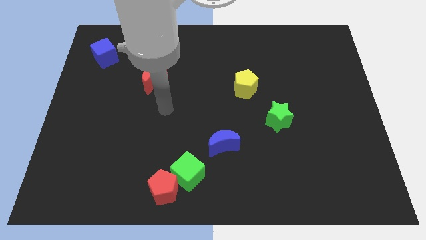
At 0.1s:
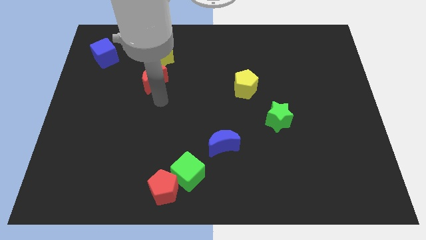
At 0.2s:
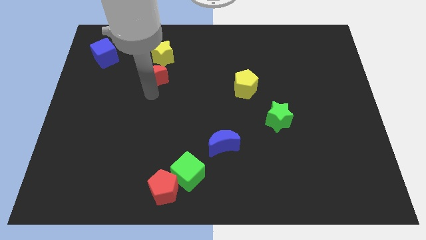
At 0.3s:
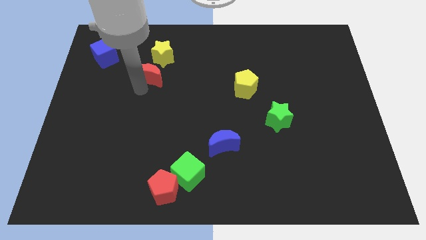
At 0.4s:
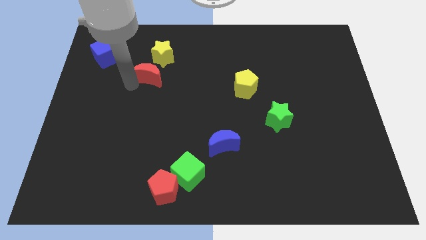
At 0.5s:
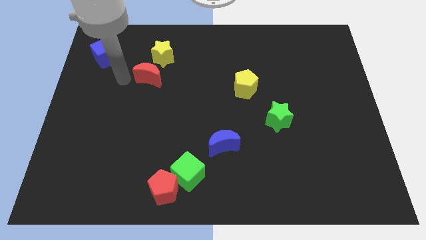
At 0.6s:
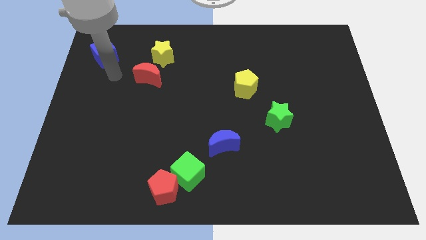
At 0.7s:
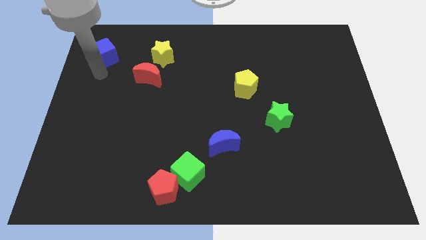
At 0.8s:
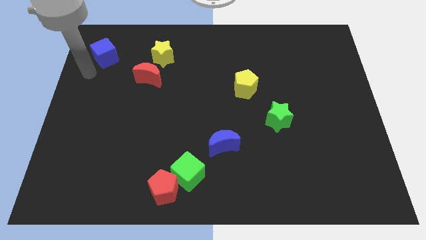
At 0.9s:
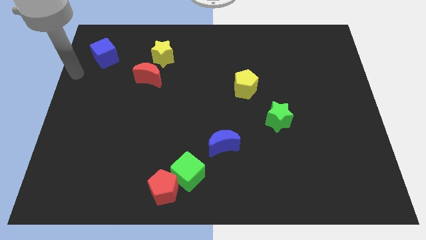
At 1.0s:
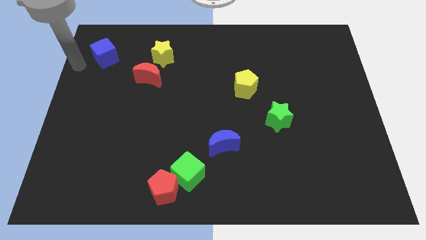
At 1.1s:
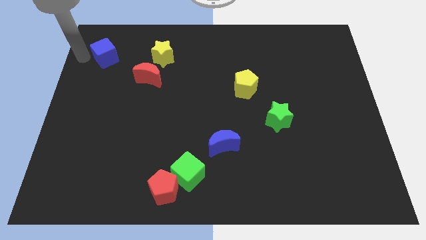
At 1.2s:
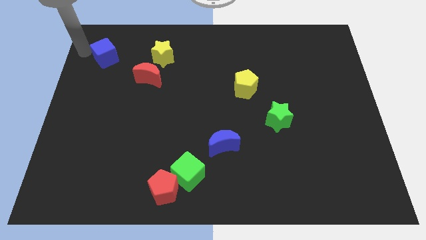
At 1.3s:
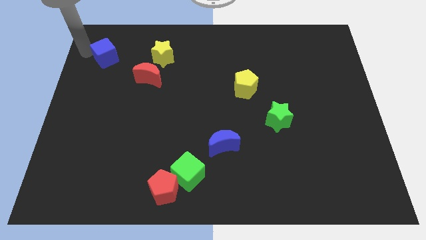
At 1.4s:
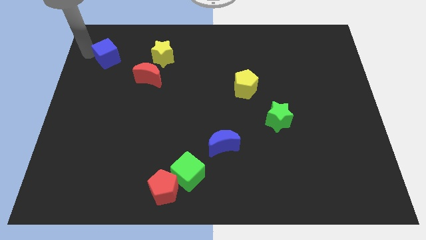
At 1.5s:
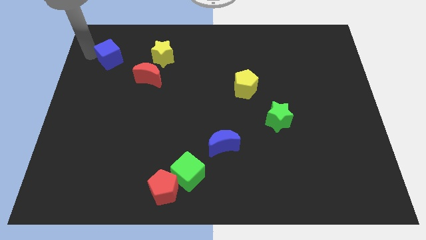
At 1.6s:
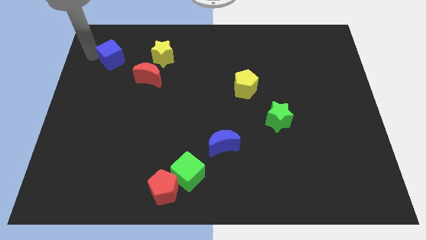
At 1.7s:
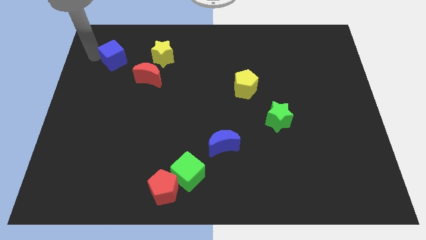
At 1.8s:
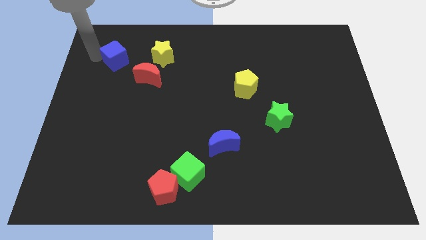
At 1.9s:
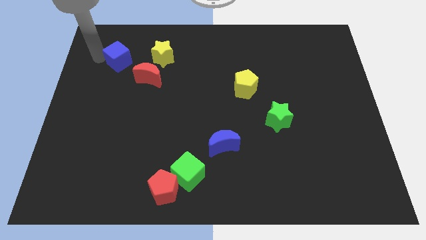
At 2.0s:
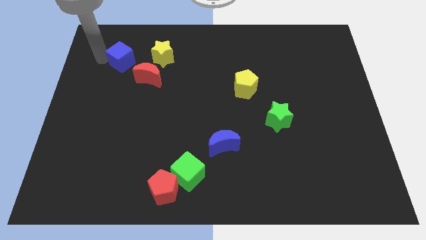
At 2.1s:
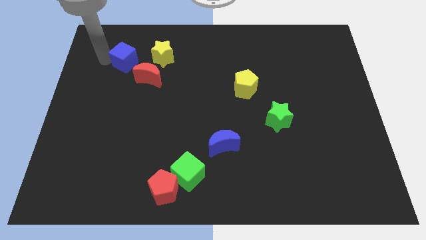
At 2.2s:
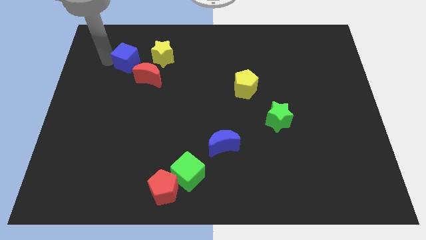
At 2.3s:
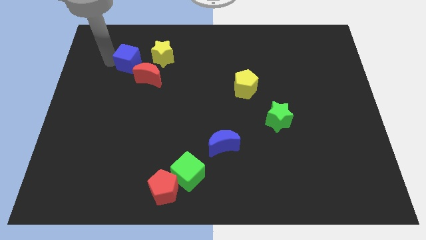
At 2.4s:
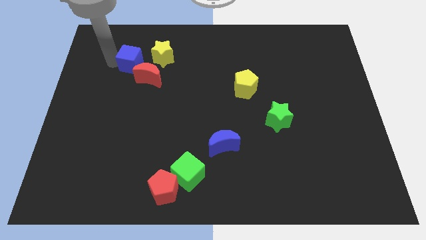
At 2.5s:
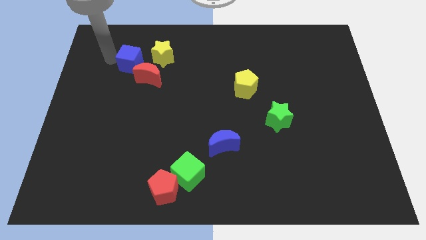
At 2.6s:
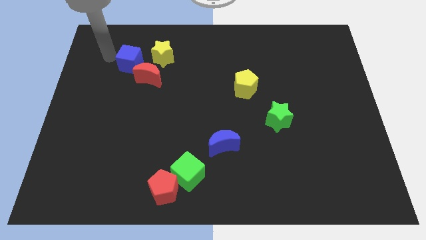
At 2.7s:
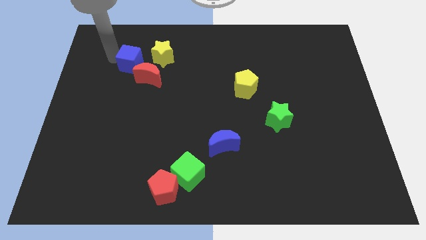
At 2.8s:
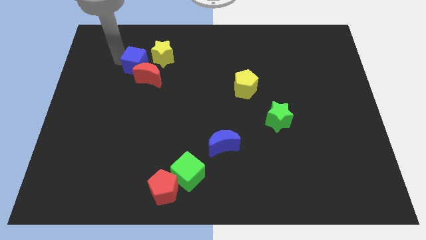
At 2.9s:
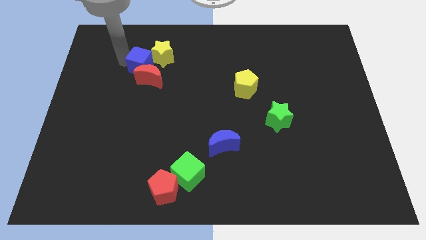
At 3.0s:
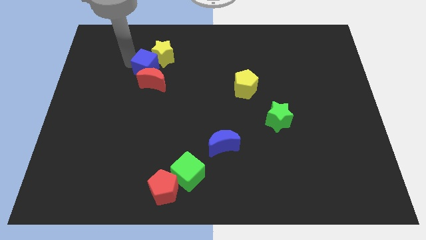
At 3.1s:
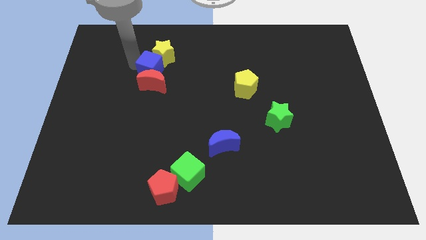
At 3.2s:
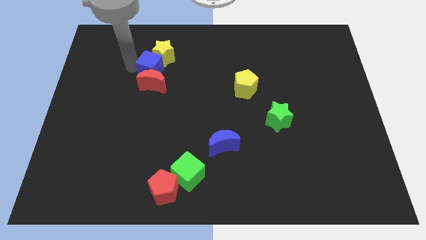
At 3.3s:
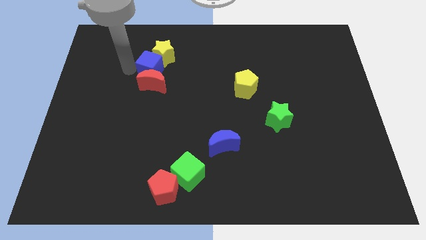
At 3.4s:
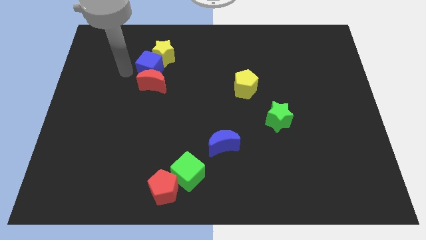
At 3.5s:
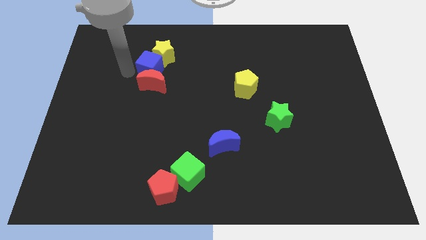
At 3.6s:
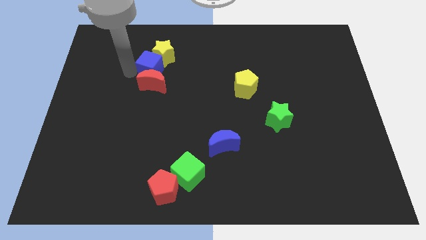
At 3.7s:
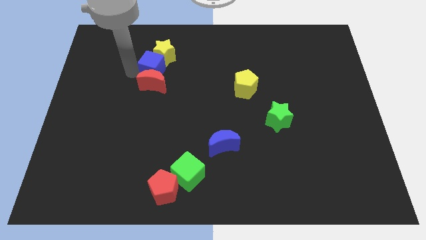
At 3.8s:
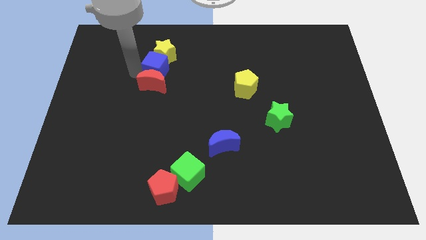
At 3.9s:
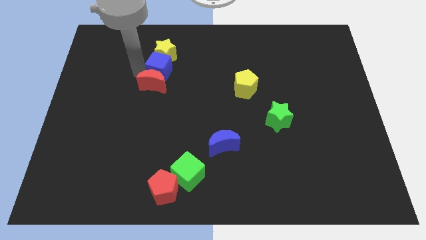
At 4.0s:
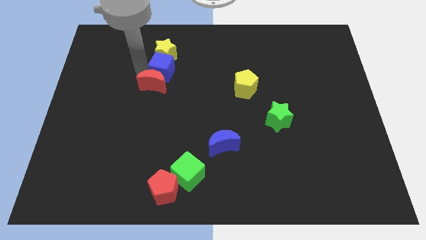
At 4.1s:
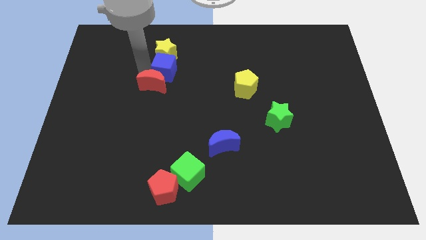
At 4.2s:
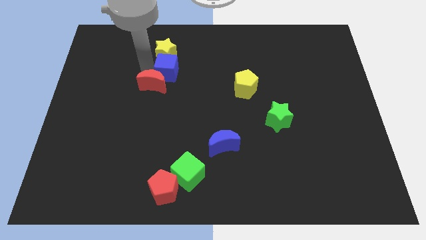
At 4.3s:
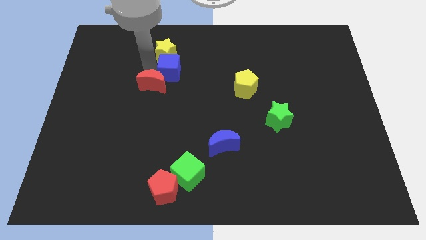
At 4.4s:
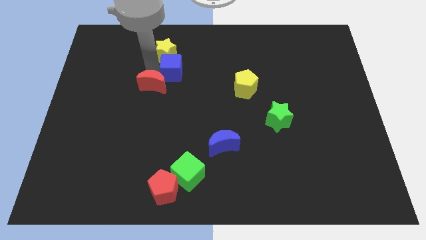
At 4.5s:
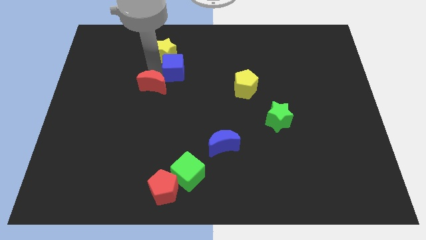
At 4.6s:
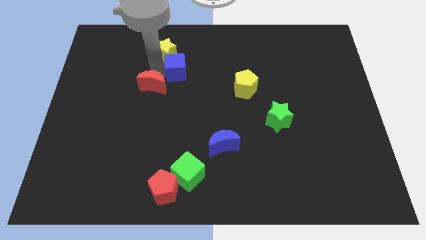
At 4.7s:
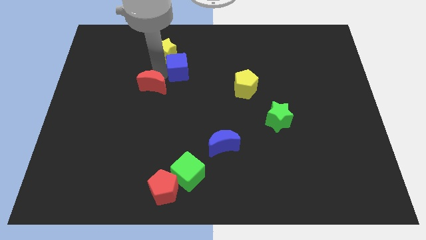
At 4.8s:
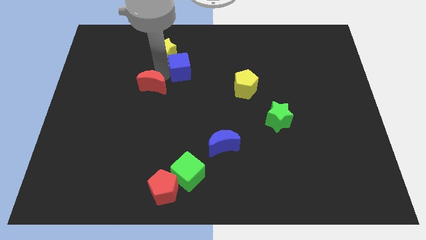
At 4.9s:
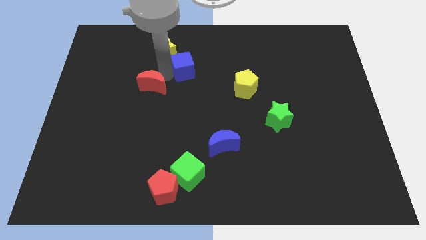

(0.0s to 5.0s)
move the blue cube to the right

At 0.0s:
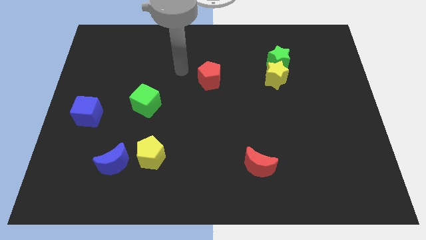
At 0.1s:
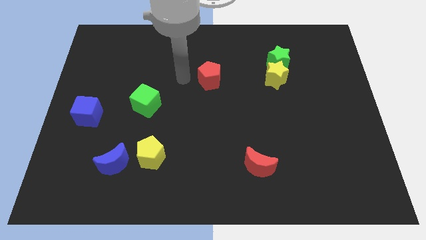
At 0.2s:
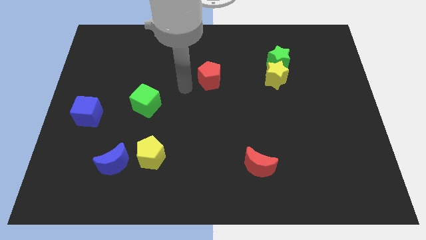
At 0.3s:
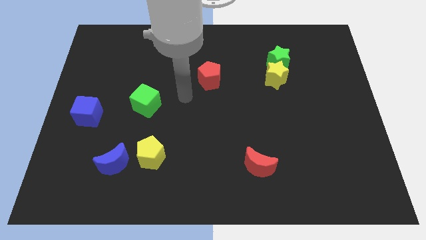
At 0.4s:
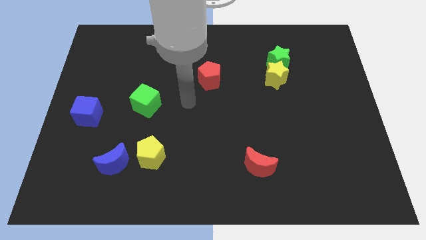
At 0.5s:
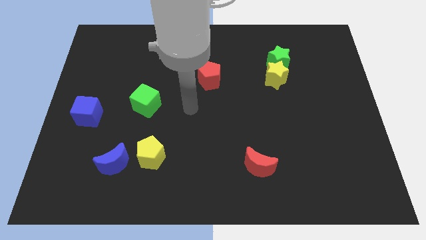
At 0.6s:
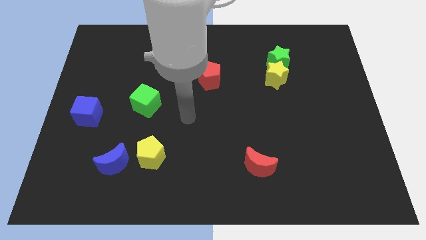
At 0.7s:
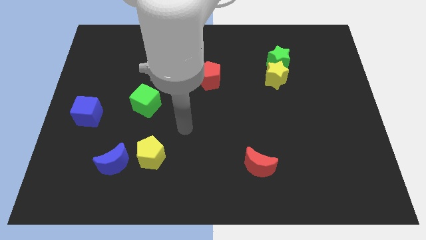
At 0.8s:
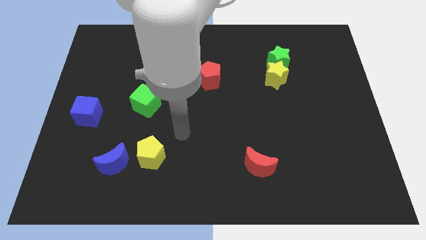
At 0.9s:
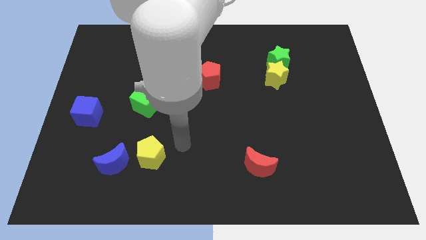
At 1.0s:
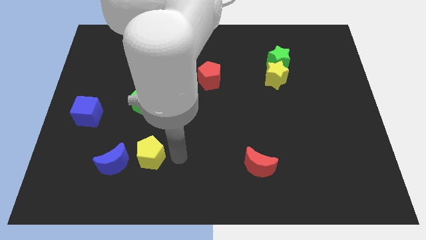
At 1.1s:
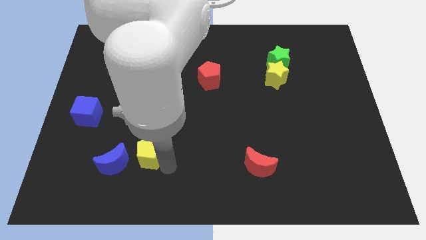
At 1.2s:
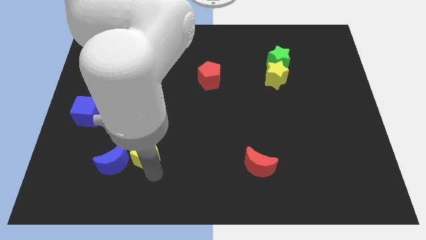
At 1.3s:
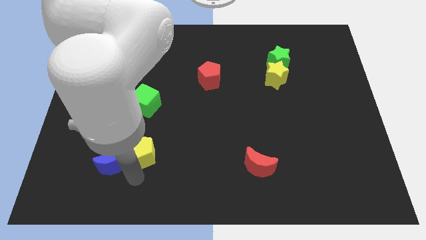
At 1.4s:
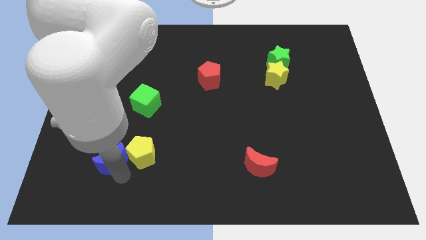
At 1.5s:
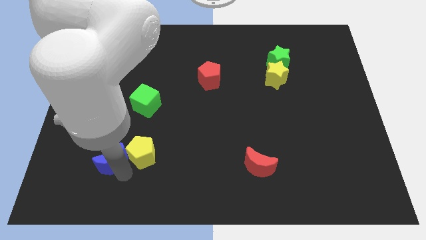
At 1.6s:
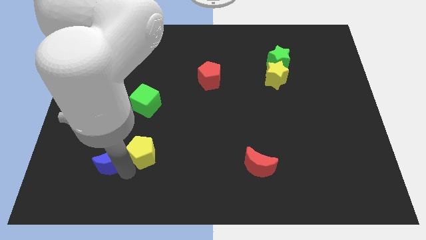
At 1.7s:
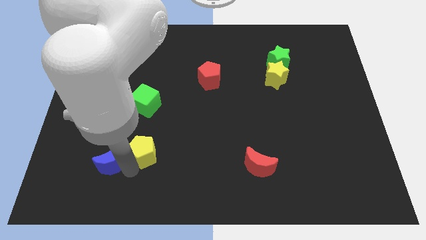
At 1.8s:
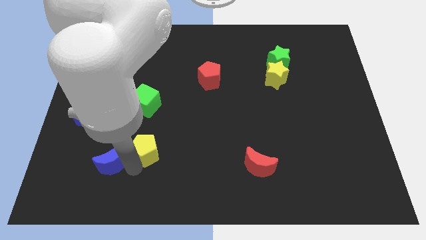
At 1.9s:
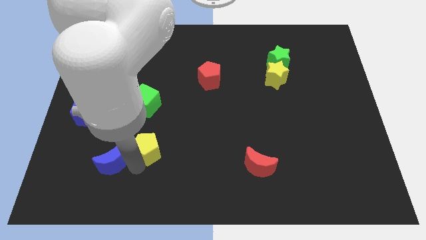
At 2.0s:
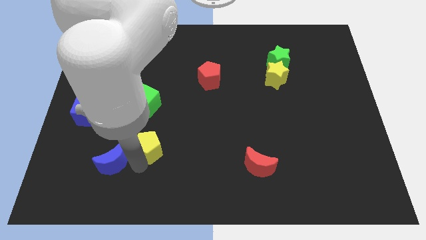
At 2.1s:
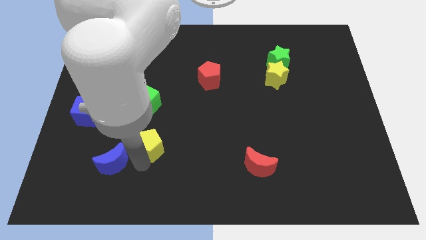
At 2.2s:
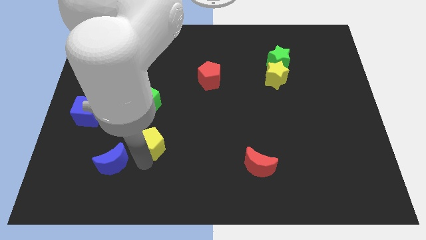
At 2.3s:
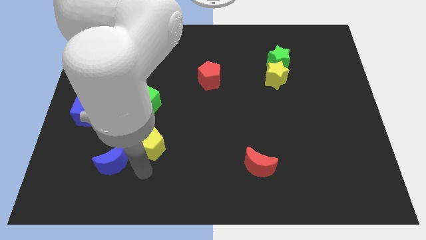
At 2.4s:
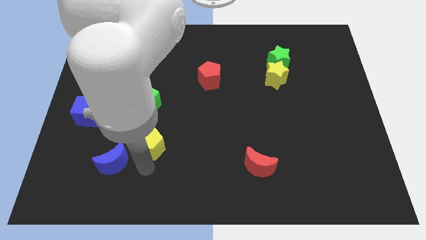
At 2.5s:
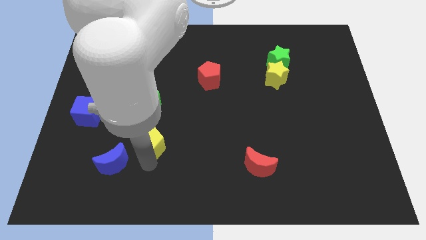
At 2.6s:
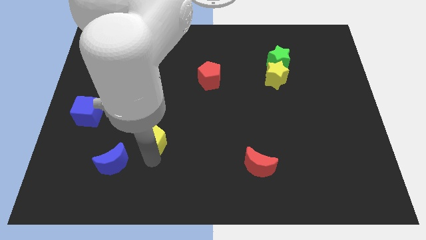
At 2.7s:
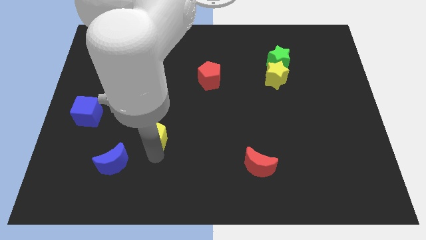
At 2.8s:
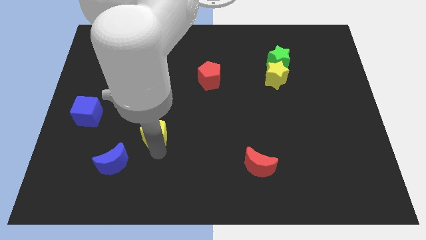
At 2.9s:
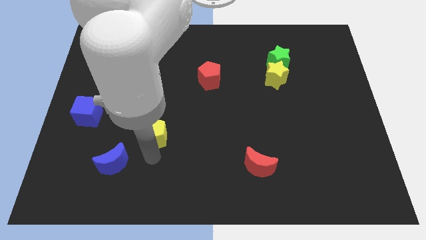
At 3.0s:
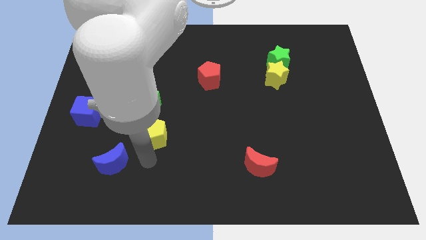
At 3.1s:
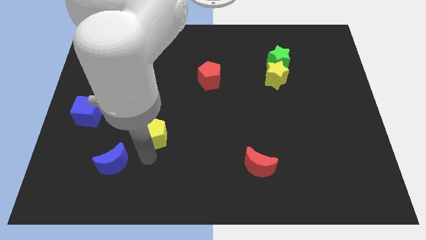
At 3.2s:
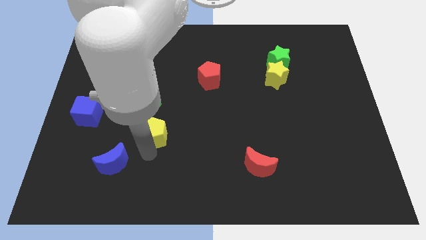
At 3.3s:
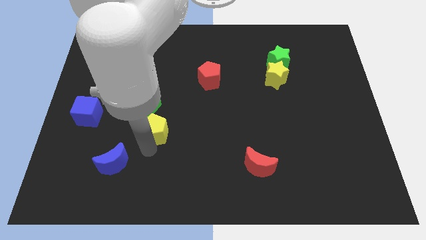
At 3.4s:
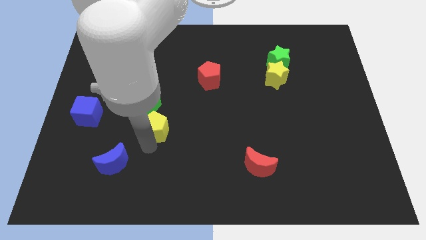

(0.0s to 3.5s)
slide the yellow pentagon a little upwards
